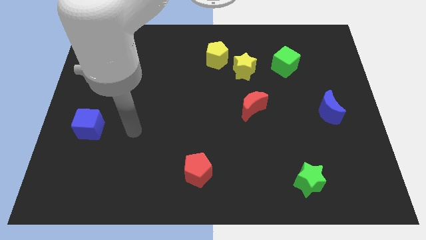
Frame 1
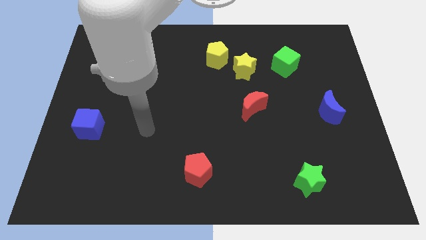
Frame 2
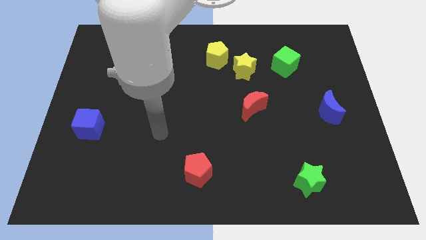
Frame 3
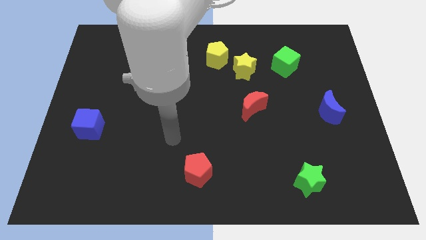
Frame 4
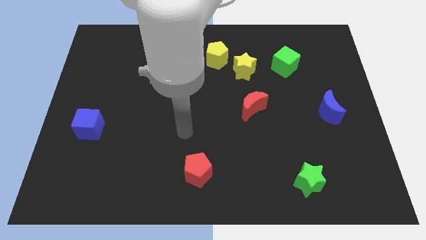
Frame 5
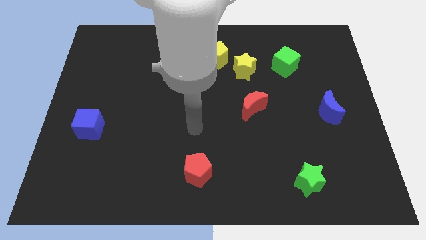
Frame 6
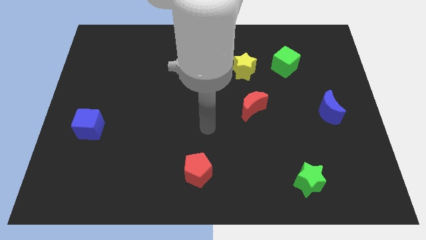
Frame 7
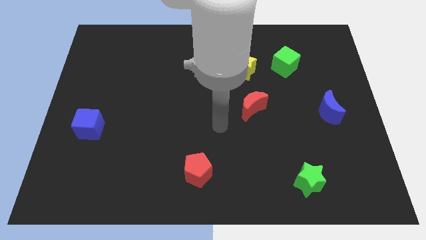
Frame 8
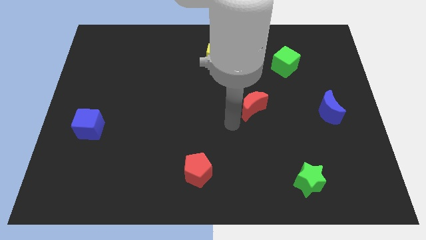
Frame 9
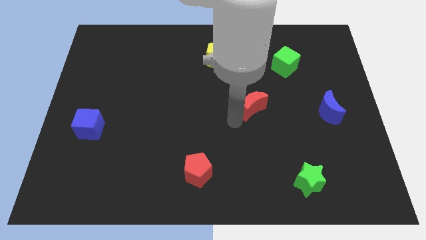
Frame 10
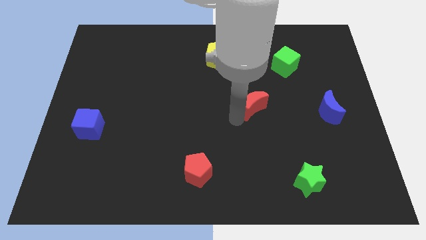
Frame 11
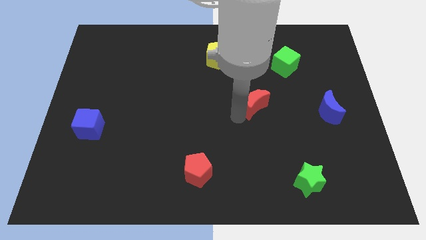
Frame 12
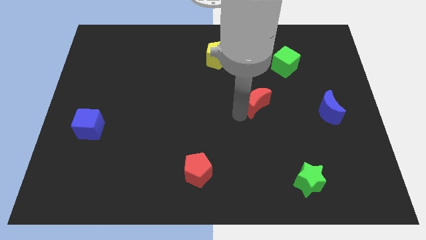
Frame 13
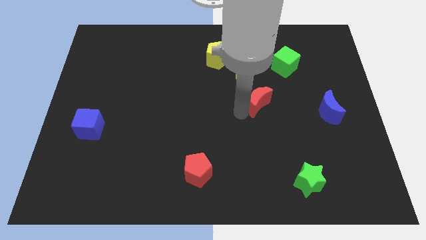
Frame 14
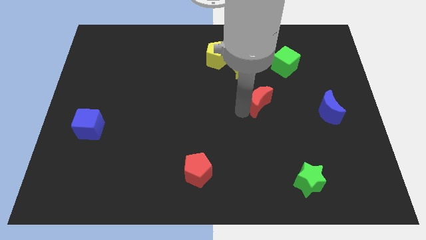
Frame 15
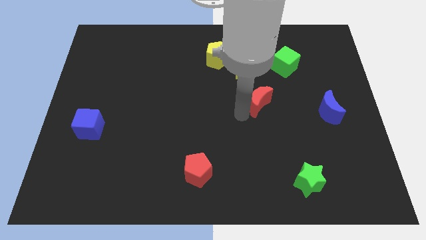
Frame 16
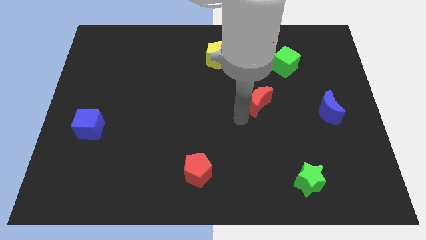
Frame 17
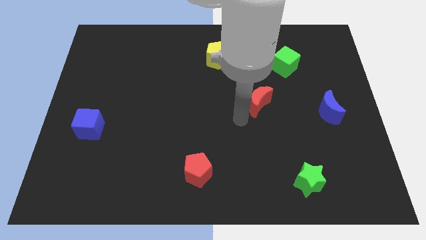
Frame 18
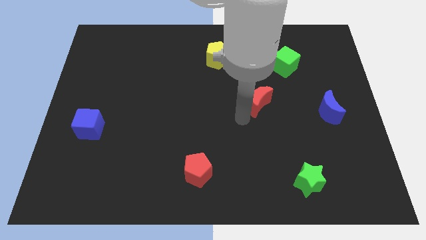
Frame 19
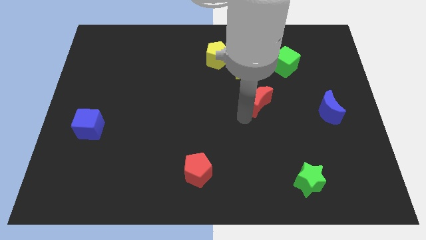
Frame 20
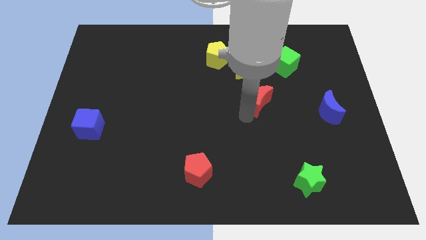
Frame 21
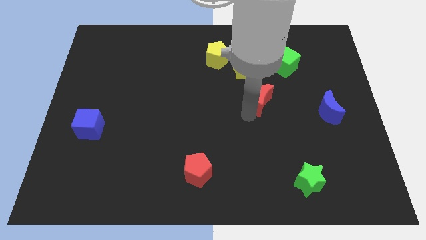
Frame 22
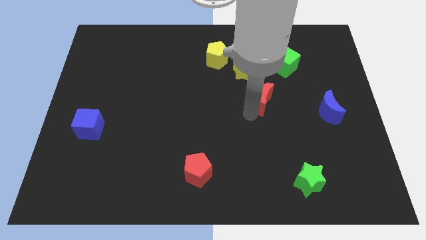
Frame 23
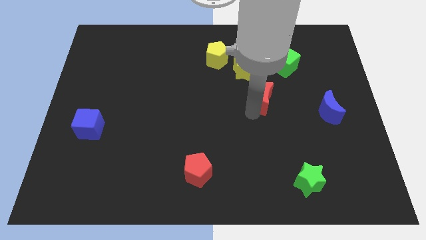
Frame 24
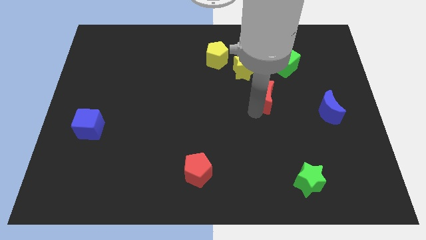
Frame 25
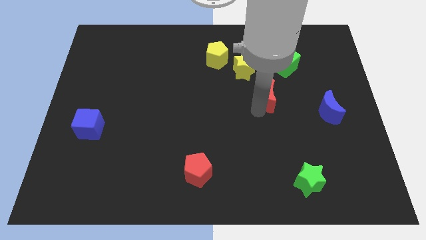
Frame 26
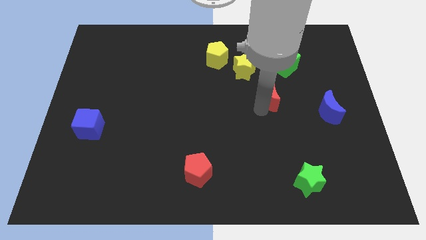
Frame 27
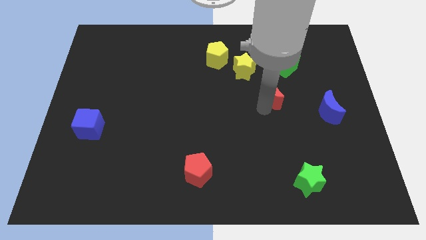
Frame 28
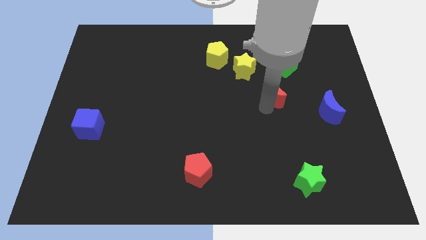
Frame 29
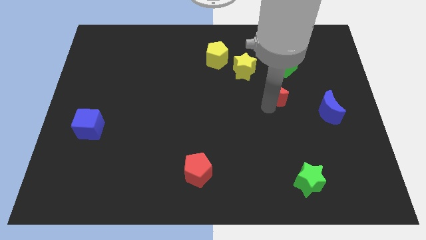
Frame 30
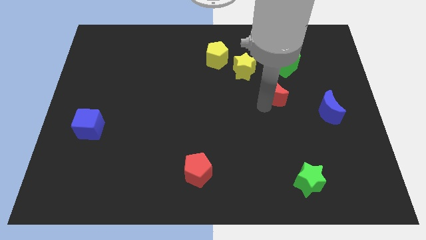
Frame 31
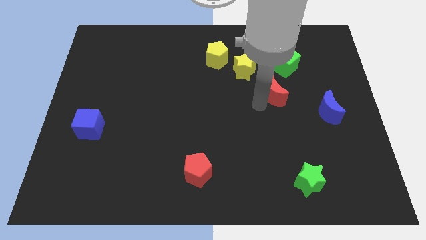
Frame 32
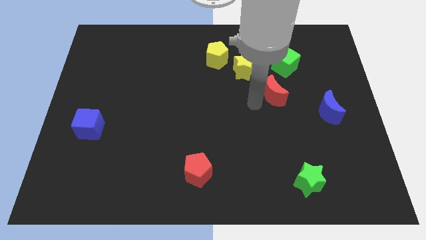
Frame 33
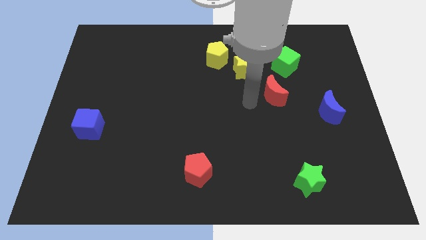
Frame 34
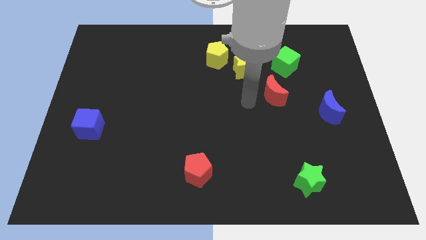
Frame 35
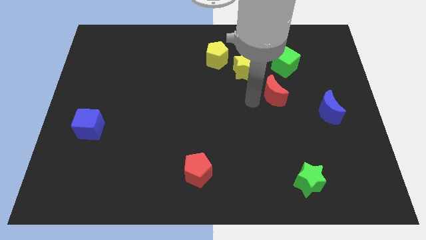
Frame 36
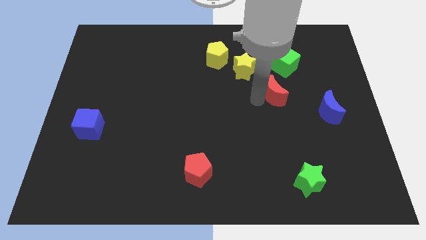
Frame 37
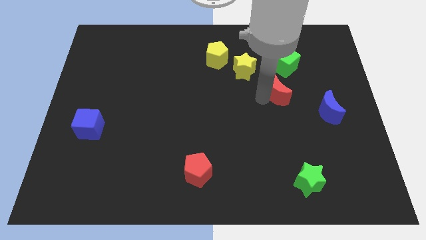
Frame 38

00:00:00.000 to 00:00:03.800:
slide the red moon upwards and then right a bit

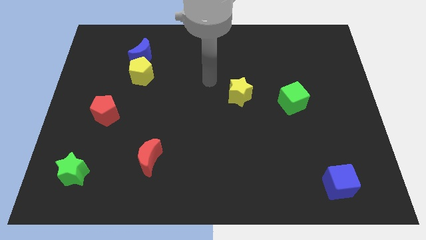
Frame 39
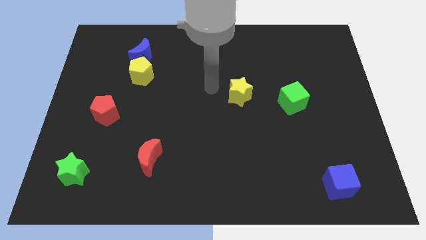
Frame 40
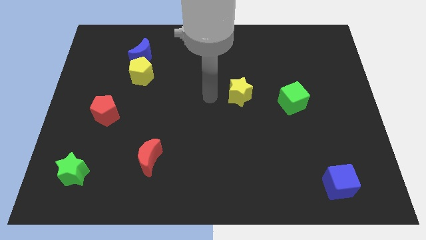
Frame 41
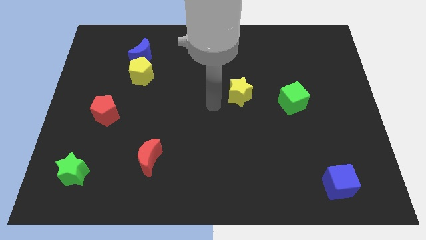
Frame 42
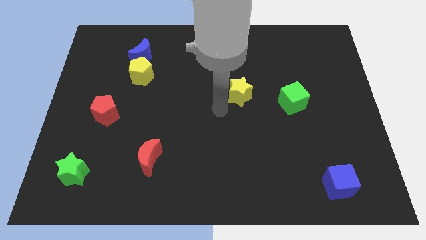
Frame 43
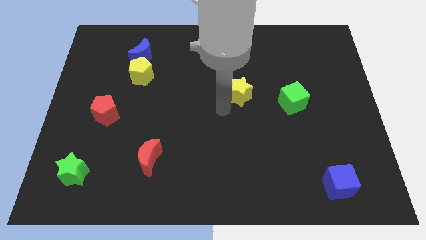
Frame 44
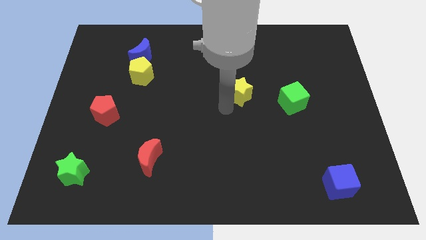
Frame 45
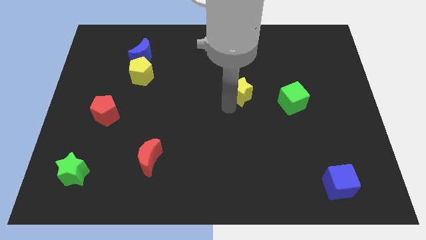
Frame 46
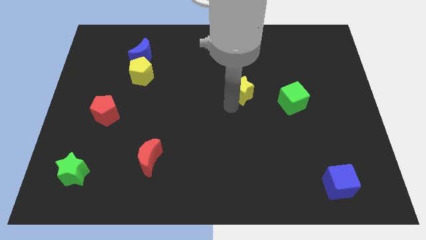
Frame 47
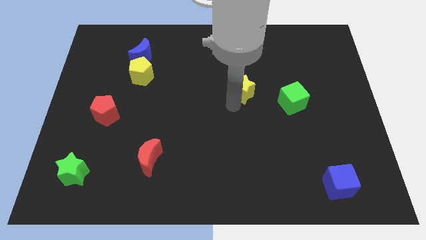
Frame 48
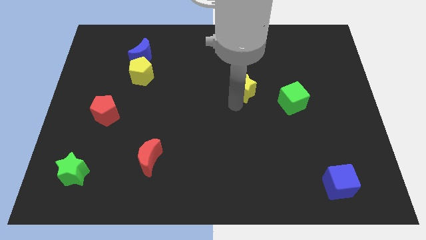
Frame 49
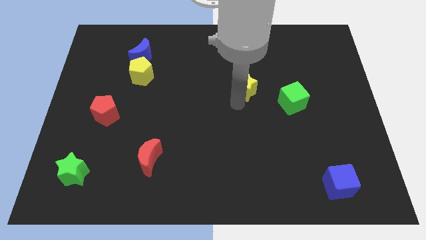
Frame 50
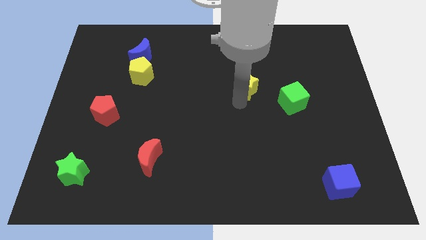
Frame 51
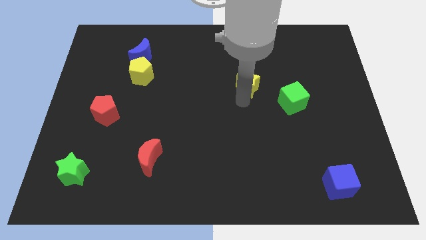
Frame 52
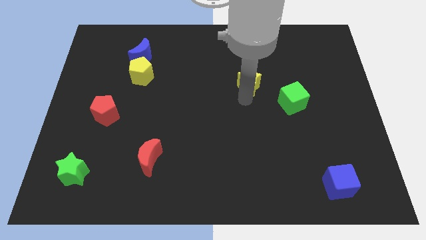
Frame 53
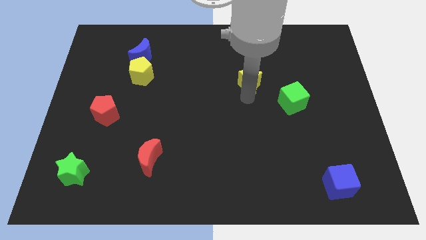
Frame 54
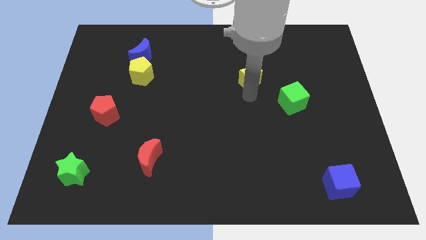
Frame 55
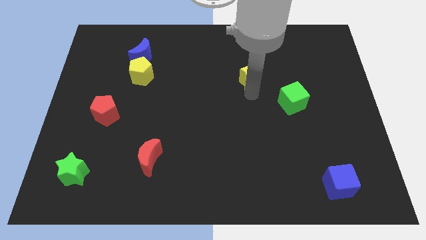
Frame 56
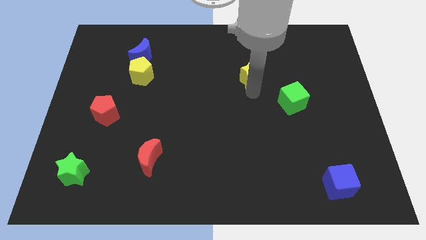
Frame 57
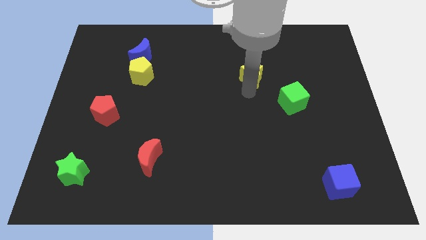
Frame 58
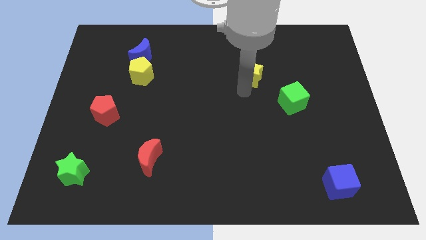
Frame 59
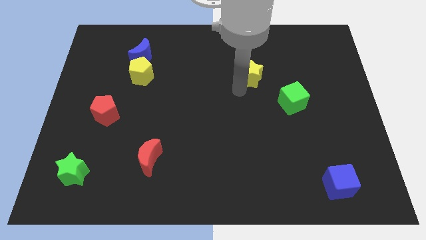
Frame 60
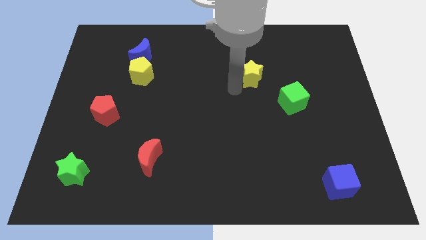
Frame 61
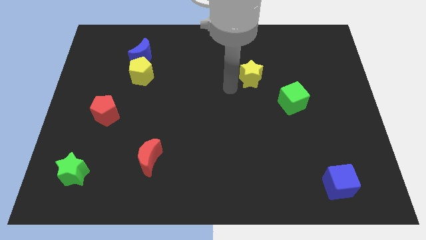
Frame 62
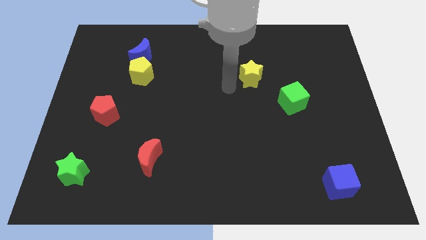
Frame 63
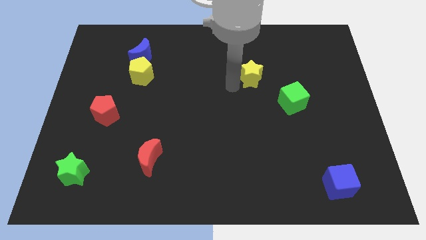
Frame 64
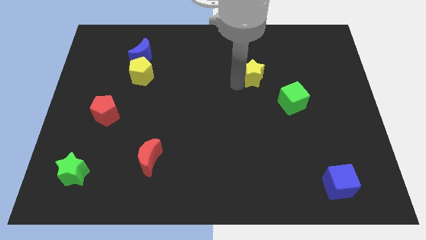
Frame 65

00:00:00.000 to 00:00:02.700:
slide the yellow star a little bit diagonally up and right

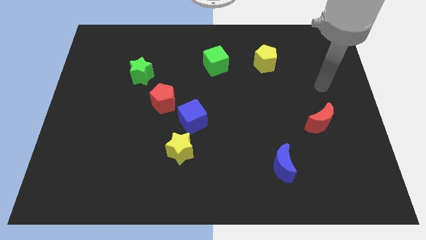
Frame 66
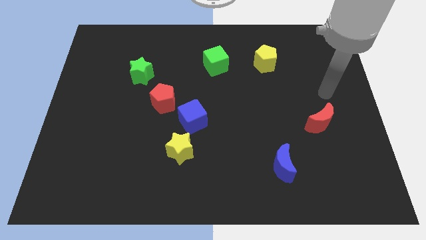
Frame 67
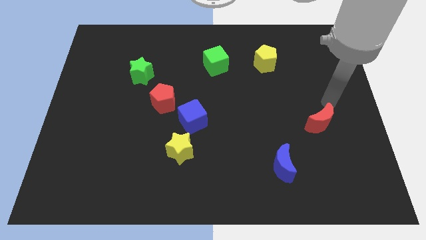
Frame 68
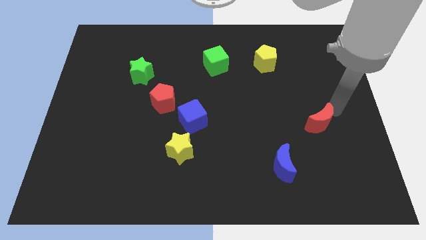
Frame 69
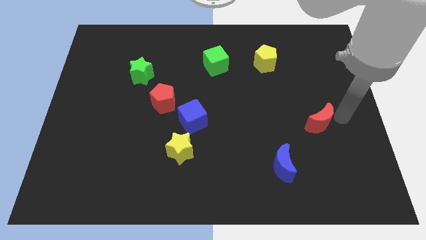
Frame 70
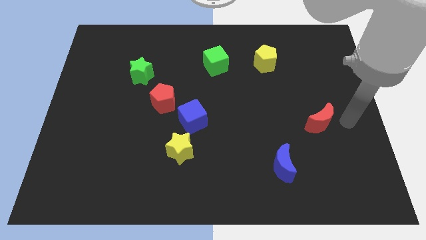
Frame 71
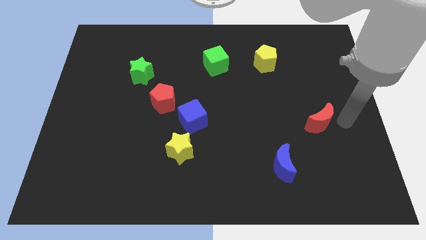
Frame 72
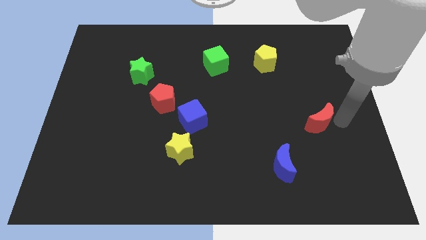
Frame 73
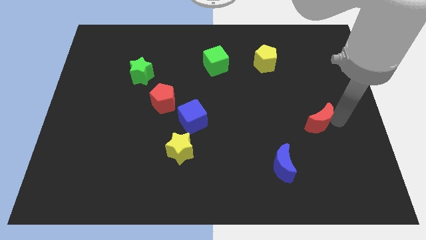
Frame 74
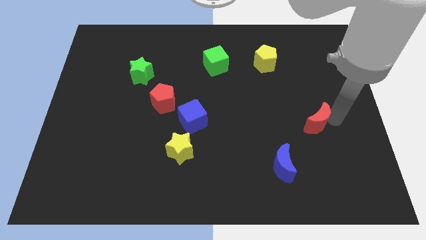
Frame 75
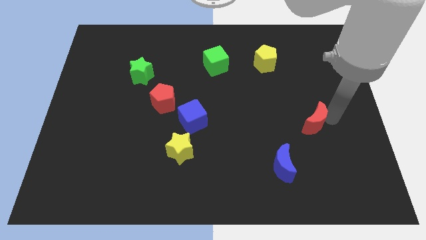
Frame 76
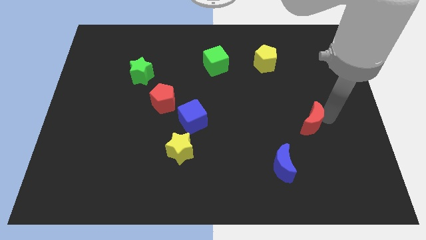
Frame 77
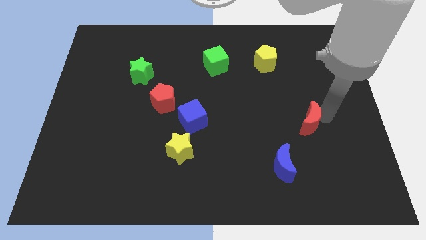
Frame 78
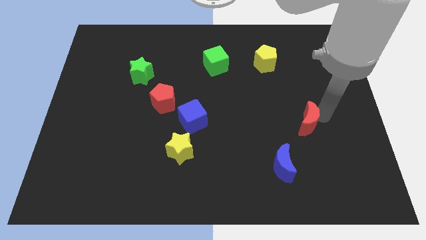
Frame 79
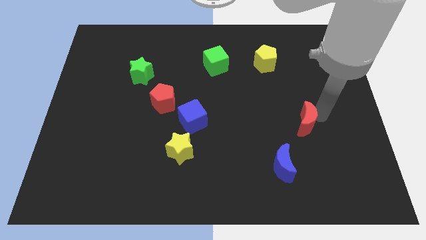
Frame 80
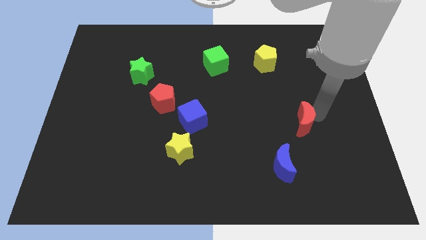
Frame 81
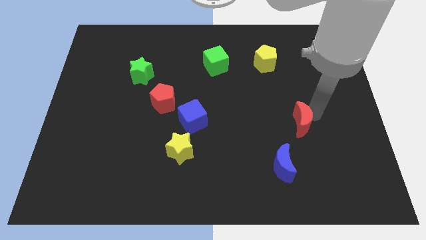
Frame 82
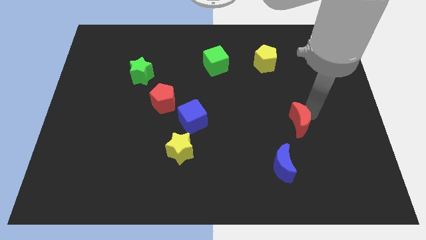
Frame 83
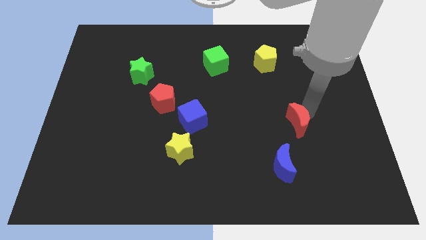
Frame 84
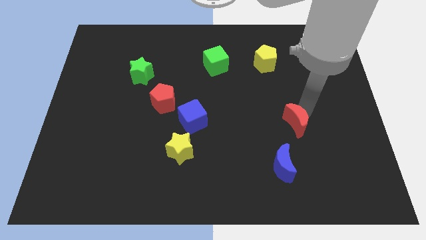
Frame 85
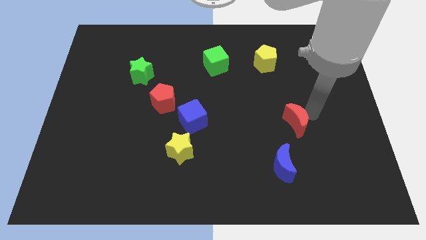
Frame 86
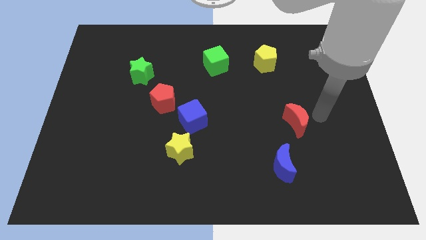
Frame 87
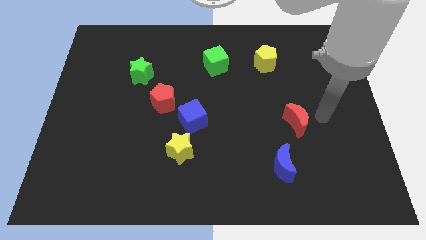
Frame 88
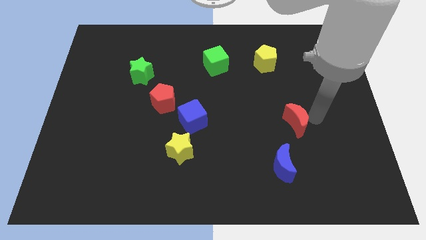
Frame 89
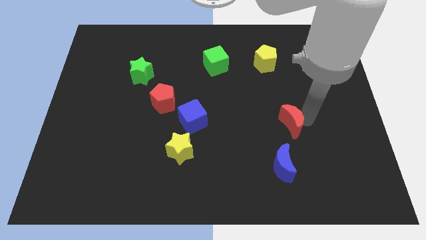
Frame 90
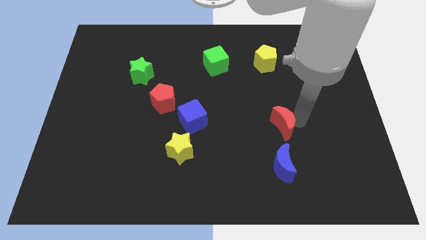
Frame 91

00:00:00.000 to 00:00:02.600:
push the red moon left somewhat
